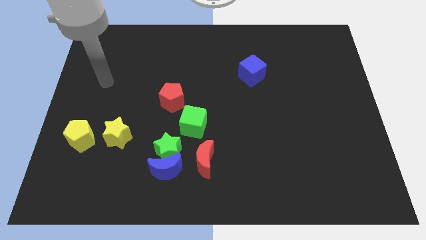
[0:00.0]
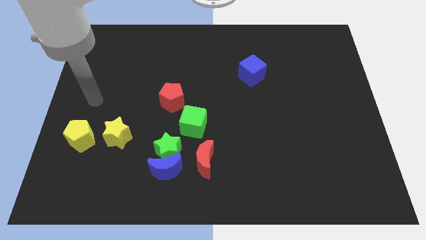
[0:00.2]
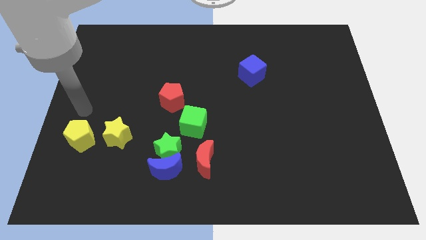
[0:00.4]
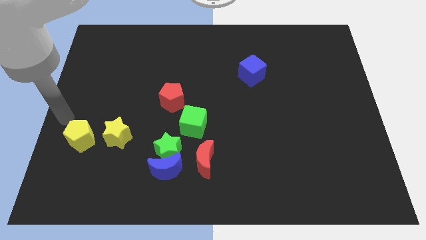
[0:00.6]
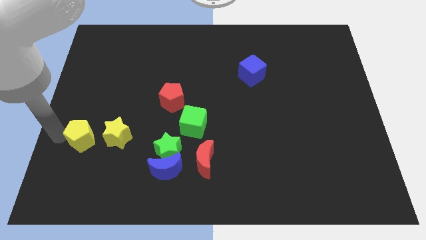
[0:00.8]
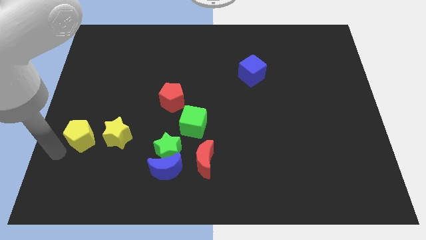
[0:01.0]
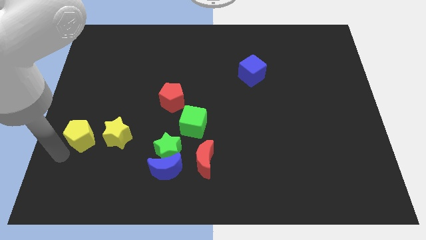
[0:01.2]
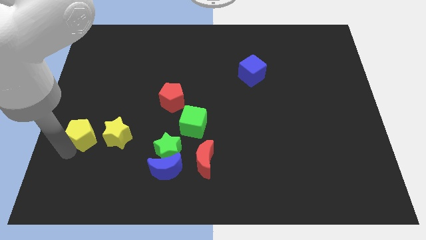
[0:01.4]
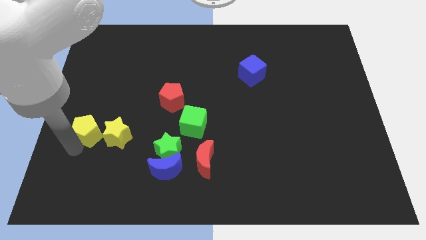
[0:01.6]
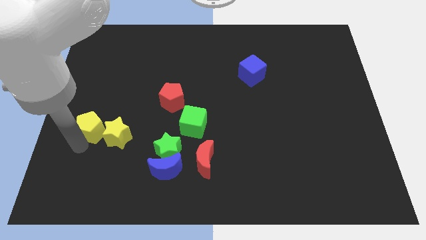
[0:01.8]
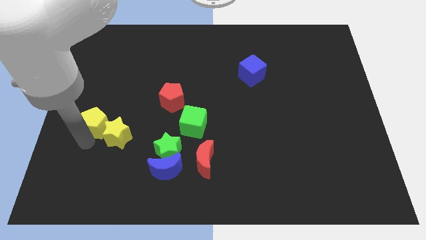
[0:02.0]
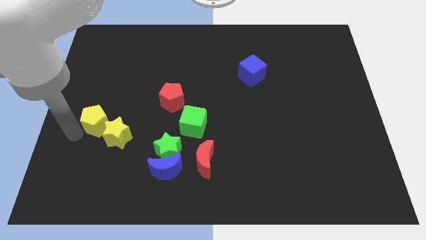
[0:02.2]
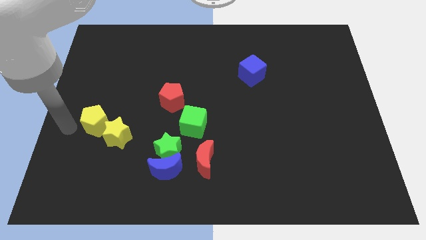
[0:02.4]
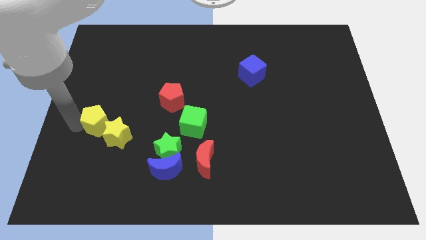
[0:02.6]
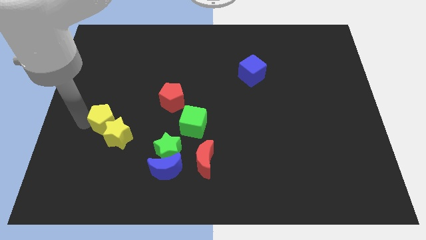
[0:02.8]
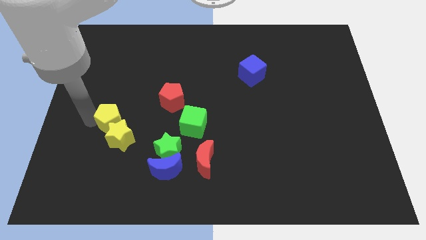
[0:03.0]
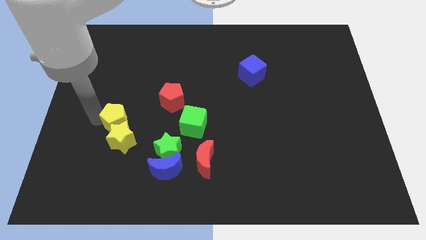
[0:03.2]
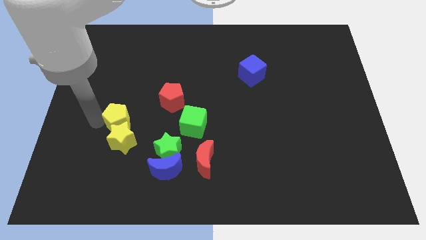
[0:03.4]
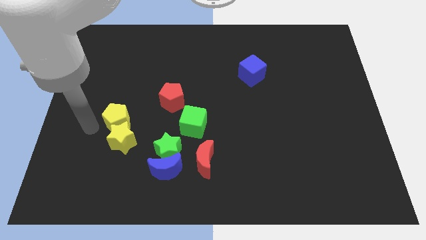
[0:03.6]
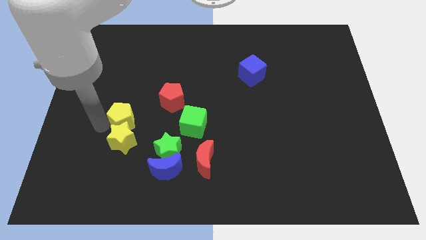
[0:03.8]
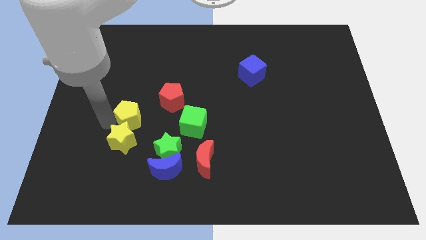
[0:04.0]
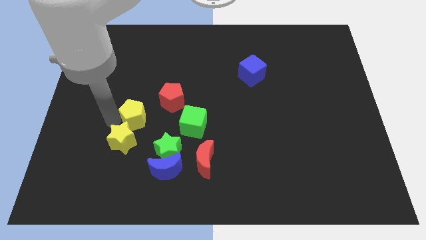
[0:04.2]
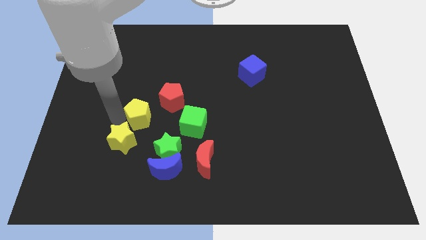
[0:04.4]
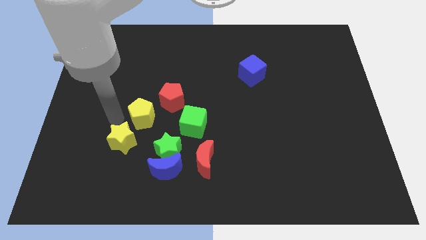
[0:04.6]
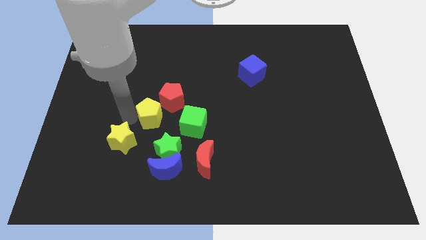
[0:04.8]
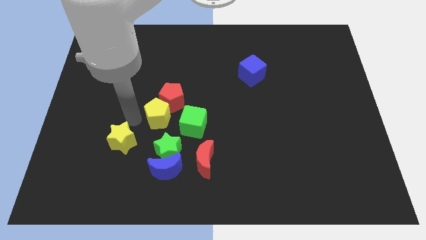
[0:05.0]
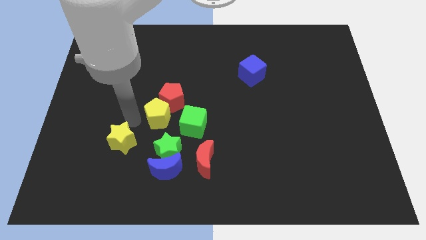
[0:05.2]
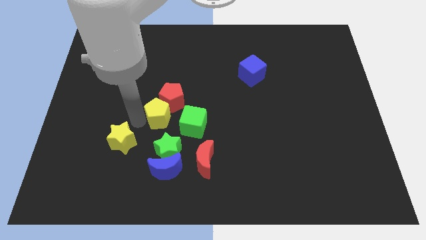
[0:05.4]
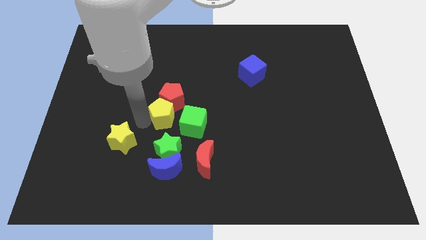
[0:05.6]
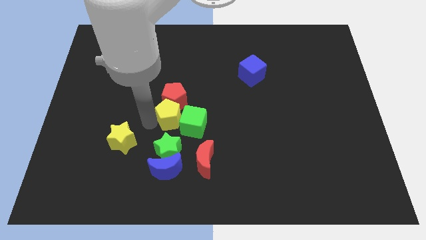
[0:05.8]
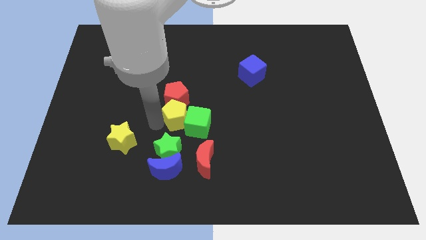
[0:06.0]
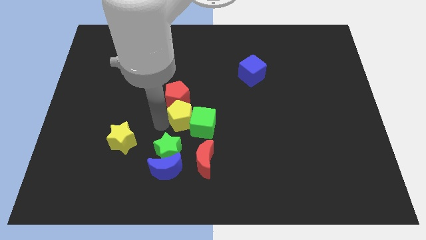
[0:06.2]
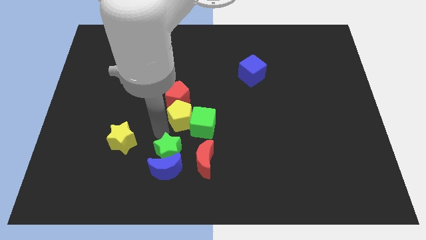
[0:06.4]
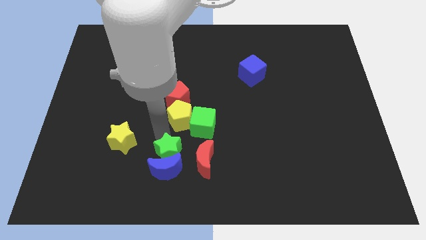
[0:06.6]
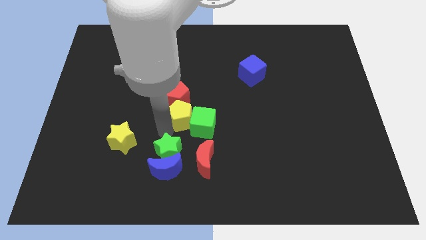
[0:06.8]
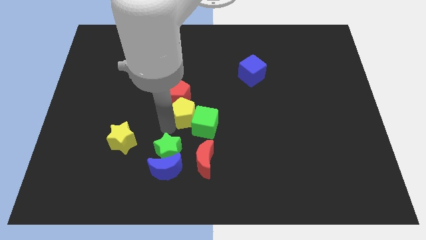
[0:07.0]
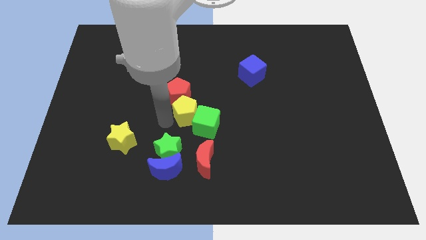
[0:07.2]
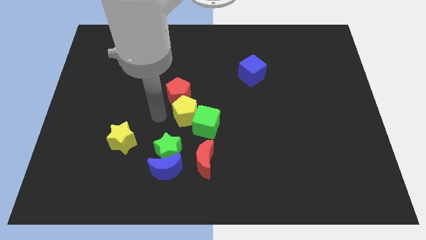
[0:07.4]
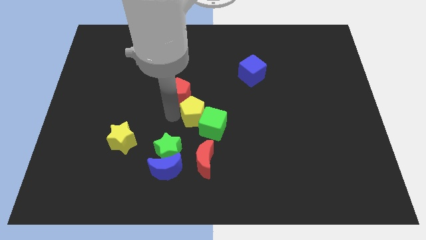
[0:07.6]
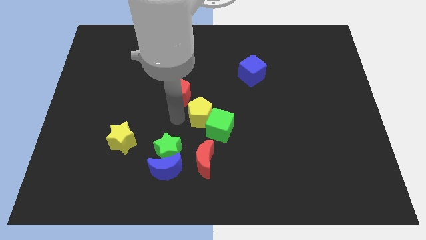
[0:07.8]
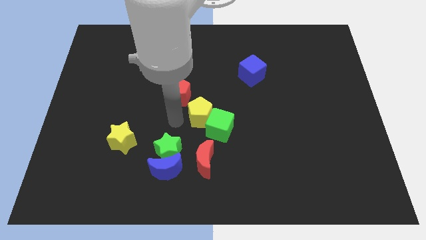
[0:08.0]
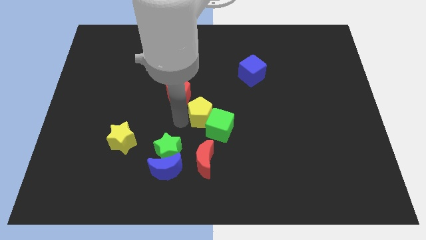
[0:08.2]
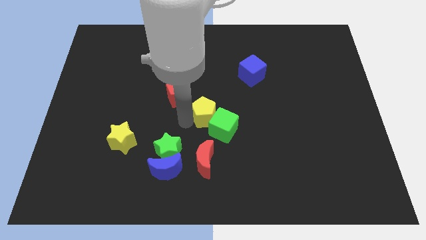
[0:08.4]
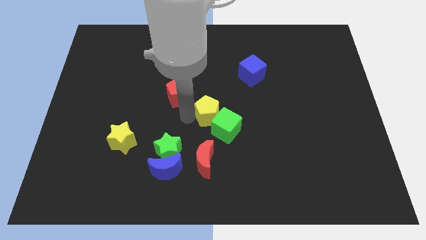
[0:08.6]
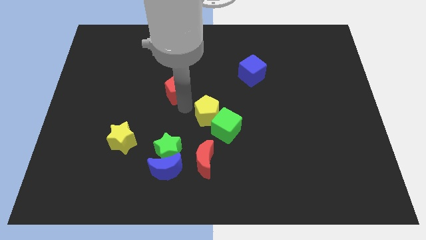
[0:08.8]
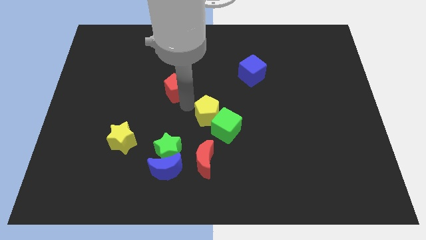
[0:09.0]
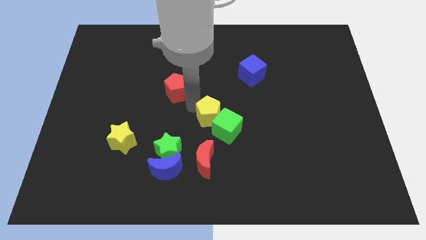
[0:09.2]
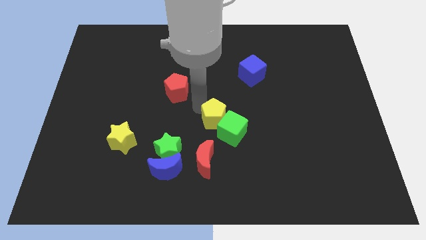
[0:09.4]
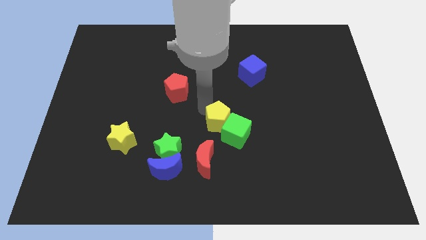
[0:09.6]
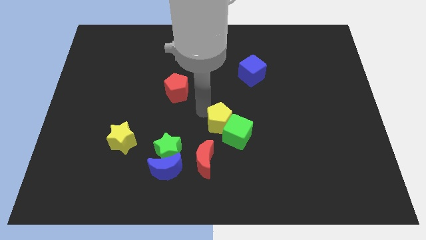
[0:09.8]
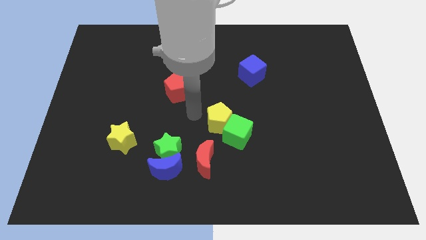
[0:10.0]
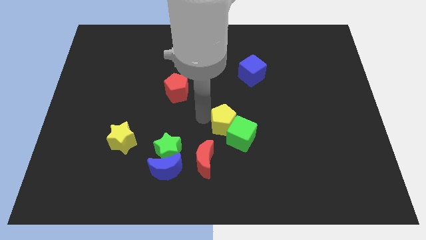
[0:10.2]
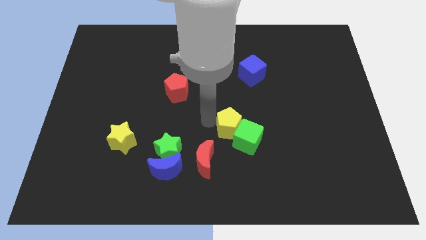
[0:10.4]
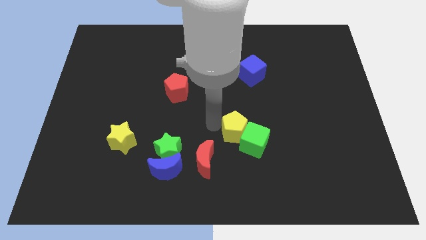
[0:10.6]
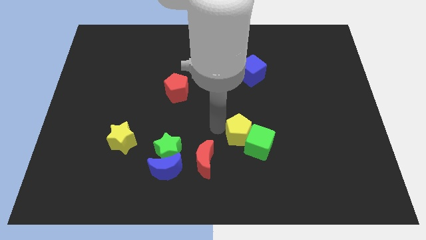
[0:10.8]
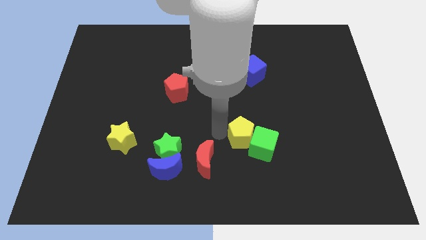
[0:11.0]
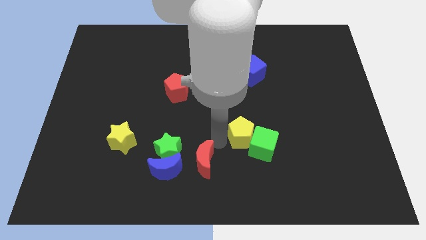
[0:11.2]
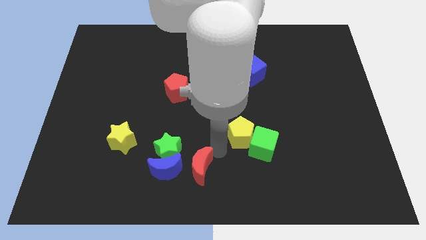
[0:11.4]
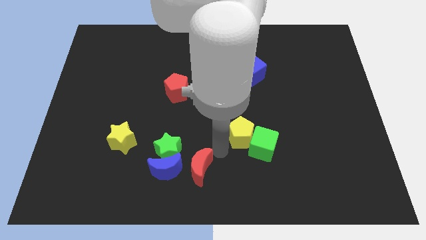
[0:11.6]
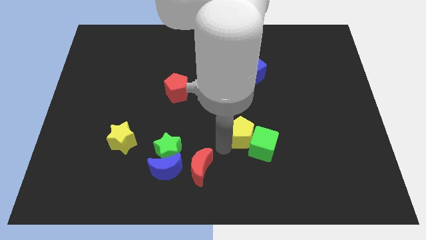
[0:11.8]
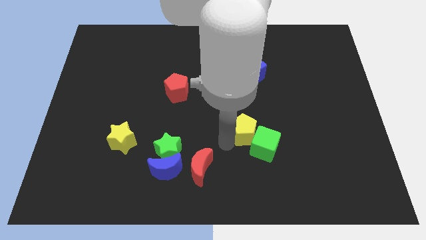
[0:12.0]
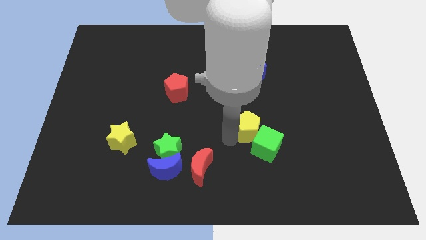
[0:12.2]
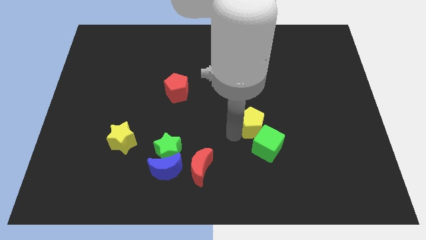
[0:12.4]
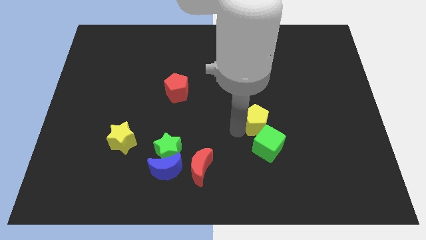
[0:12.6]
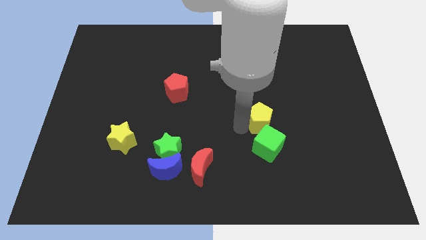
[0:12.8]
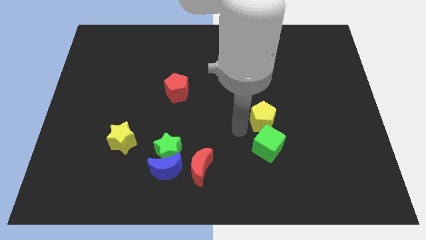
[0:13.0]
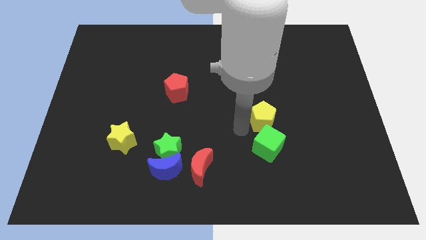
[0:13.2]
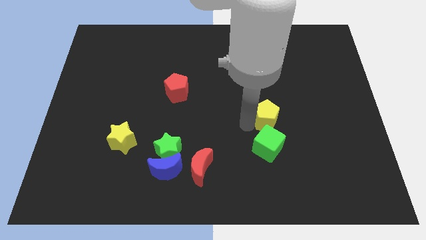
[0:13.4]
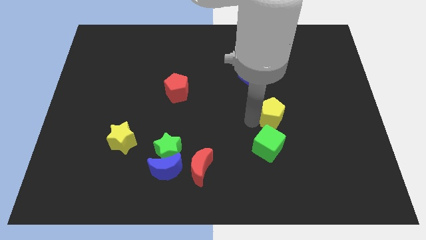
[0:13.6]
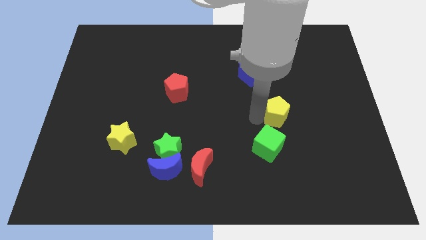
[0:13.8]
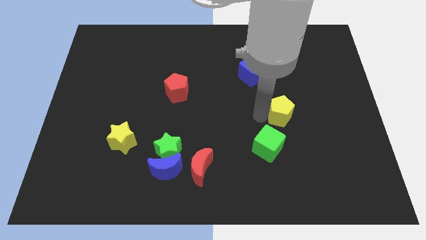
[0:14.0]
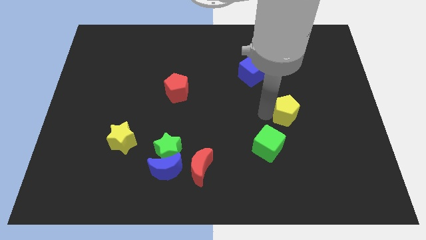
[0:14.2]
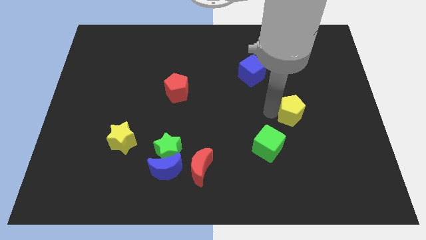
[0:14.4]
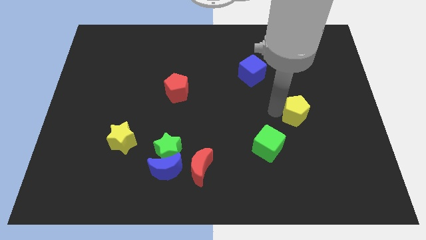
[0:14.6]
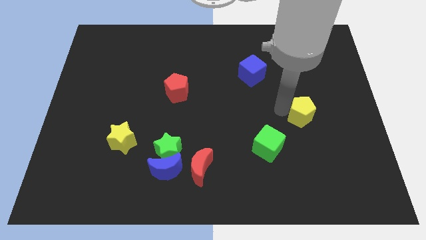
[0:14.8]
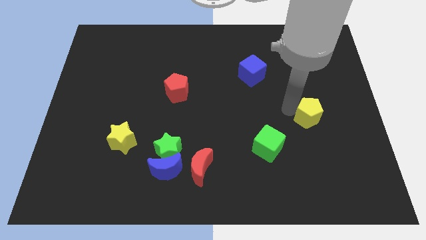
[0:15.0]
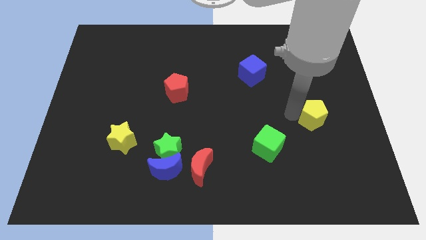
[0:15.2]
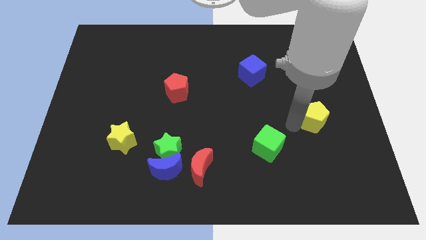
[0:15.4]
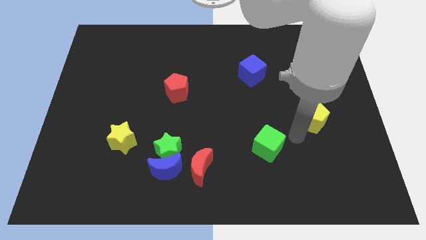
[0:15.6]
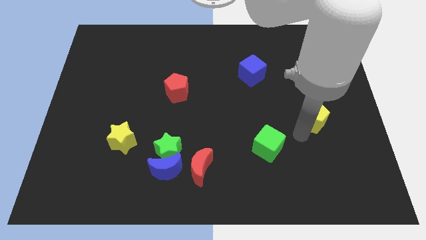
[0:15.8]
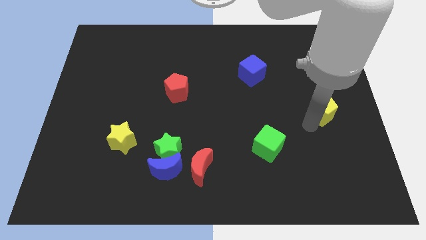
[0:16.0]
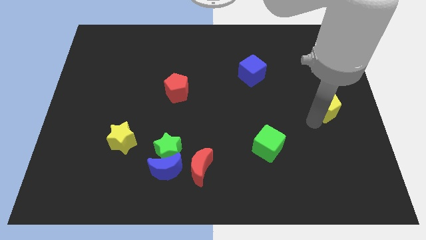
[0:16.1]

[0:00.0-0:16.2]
put the yellow pentagon to the right side
